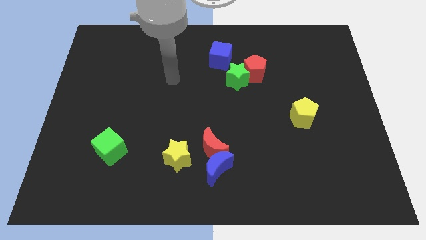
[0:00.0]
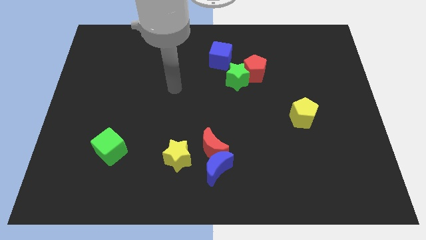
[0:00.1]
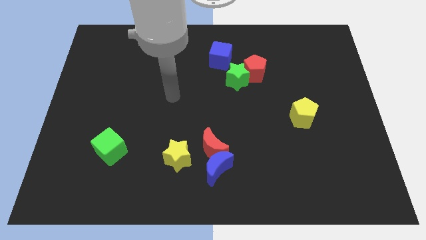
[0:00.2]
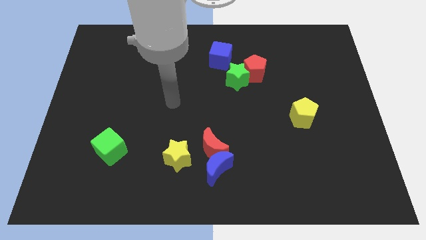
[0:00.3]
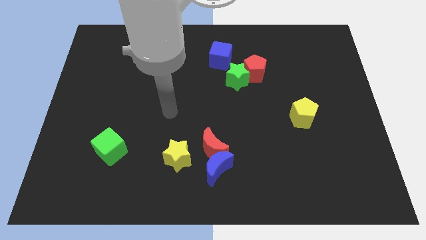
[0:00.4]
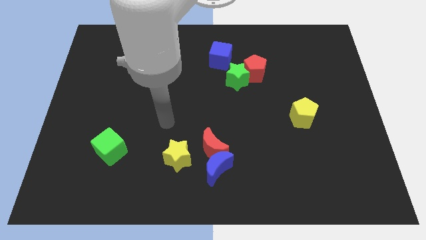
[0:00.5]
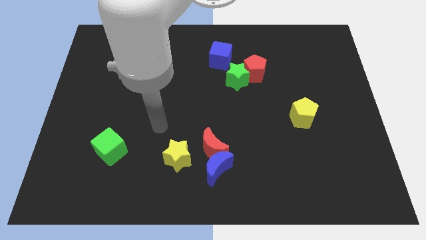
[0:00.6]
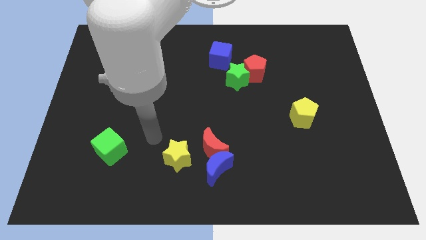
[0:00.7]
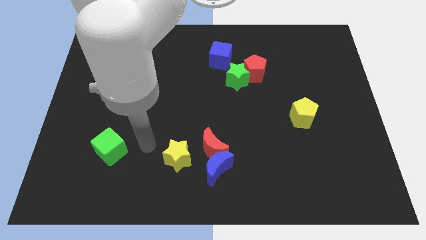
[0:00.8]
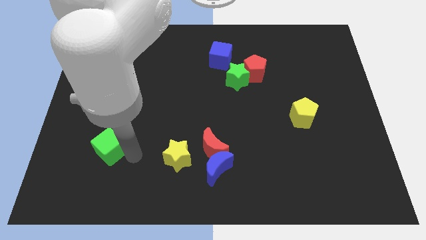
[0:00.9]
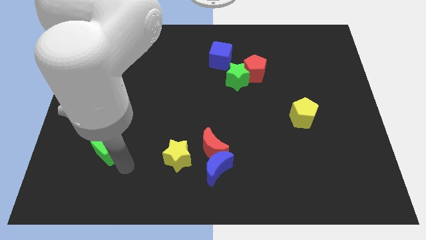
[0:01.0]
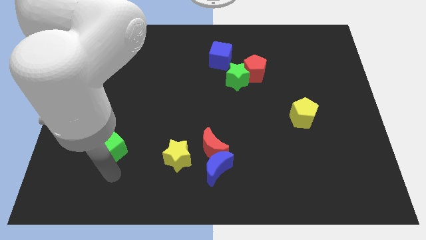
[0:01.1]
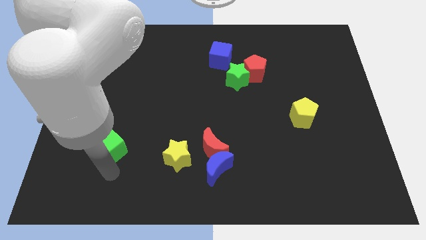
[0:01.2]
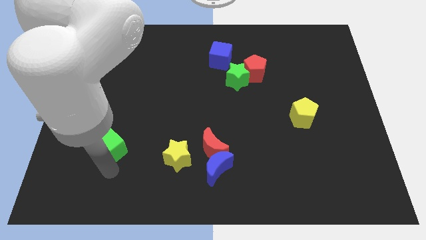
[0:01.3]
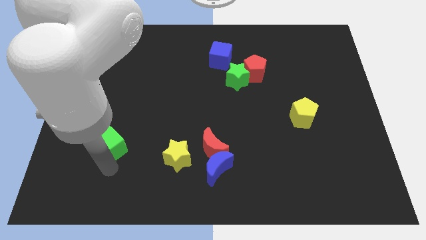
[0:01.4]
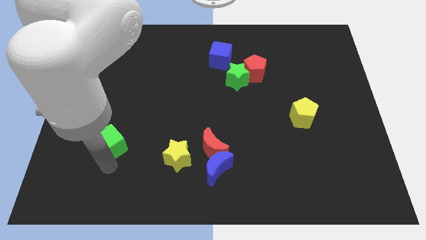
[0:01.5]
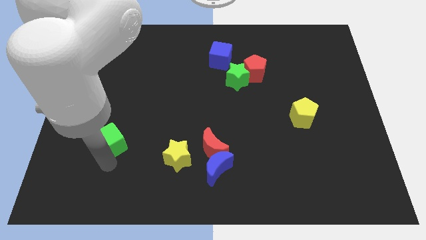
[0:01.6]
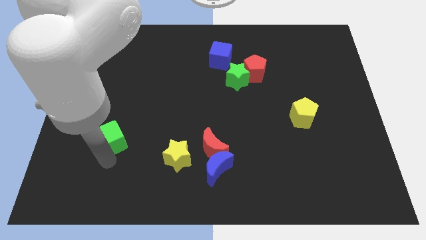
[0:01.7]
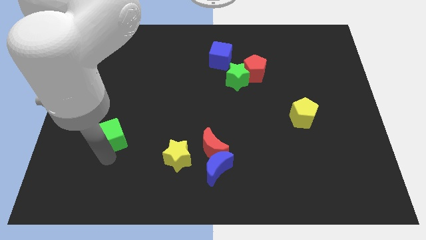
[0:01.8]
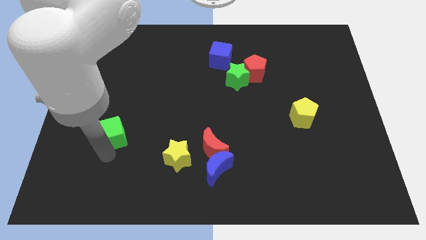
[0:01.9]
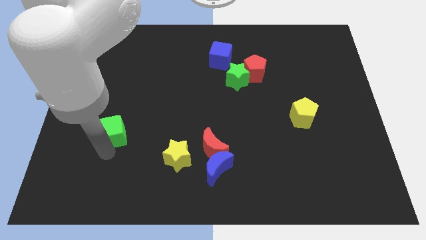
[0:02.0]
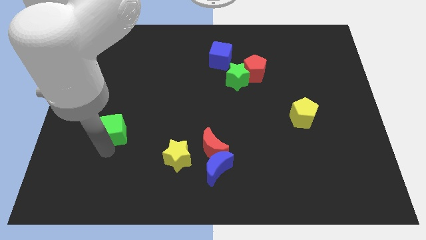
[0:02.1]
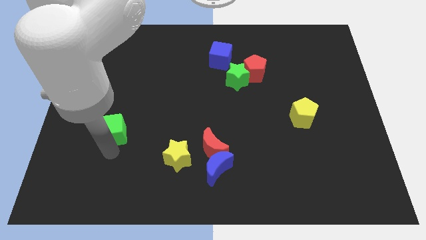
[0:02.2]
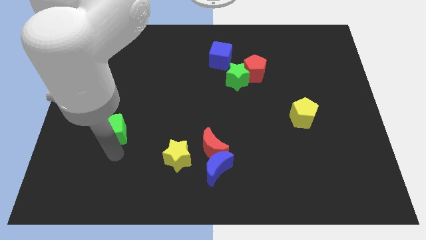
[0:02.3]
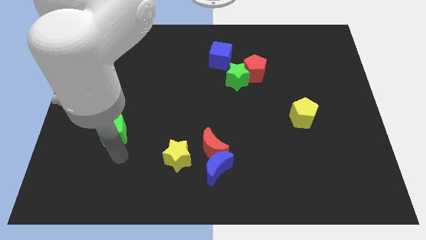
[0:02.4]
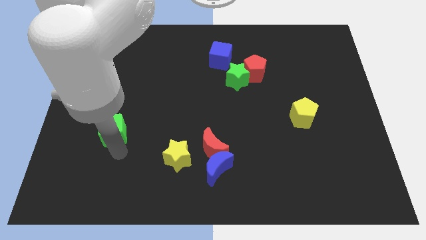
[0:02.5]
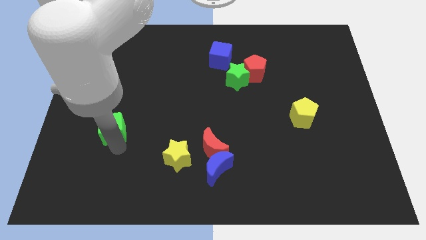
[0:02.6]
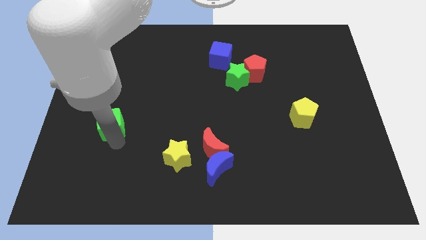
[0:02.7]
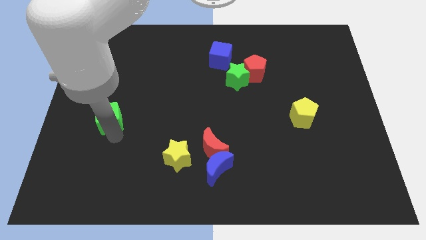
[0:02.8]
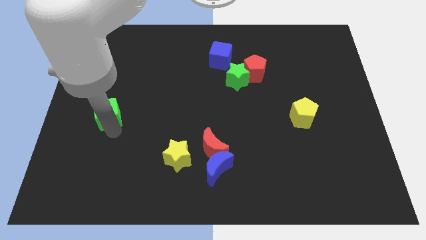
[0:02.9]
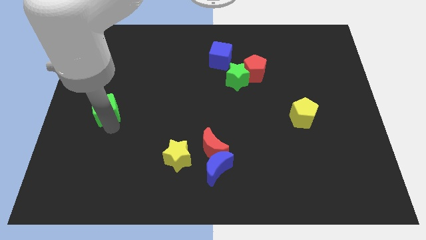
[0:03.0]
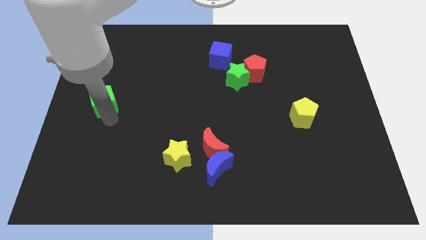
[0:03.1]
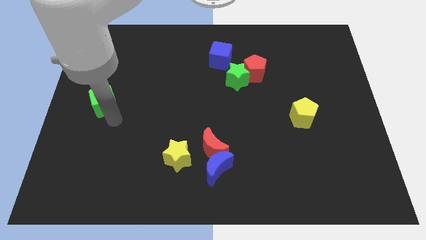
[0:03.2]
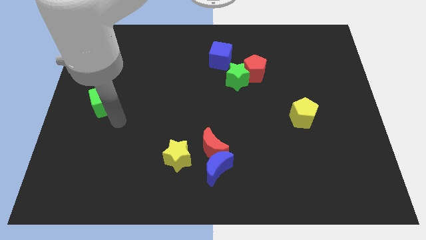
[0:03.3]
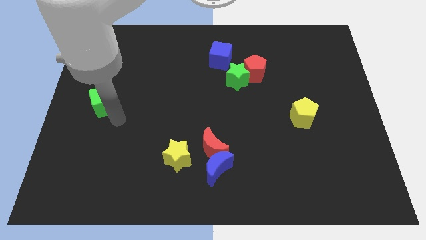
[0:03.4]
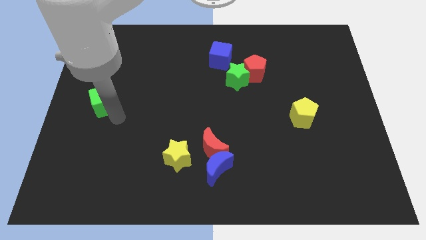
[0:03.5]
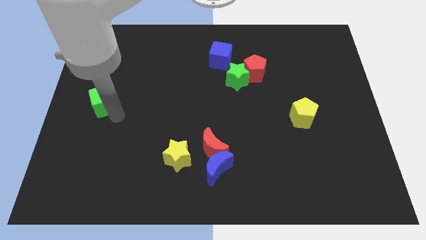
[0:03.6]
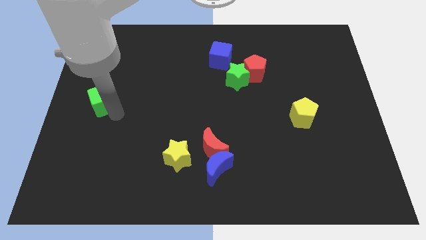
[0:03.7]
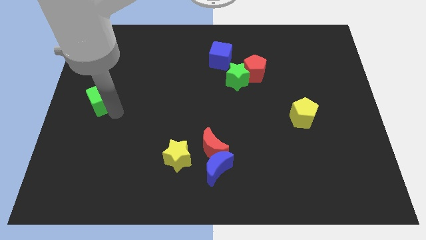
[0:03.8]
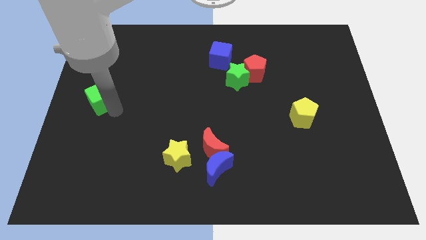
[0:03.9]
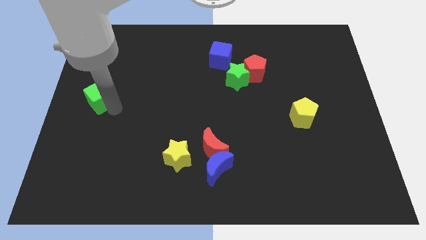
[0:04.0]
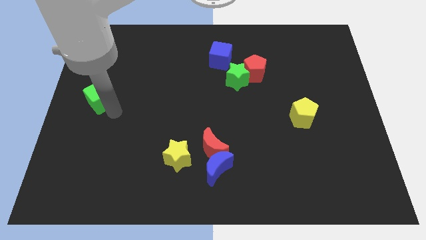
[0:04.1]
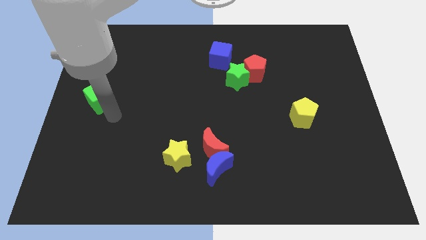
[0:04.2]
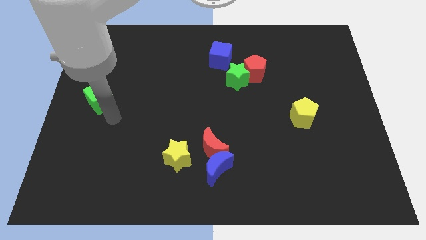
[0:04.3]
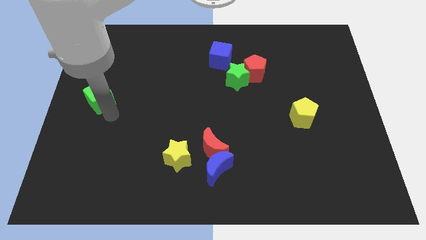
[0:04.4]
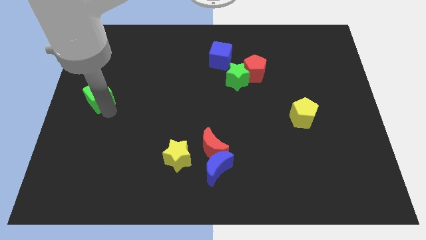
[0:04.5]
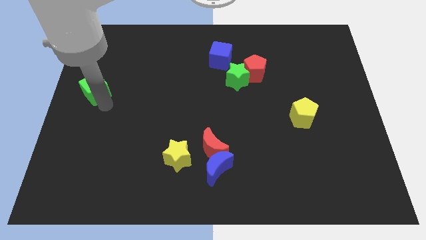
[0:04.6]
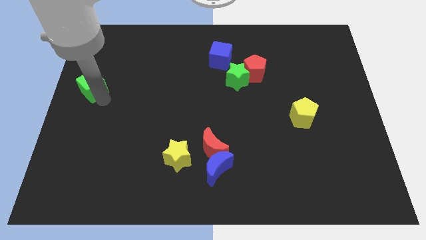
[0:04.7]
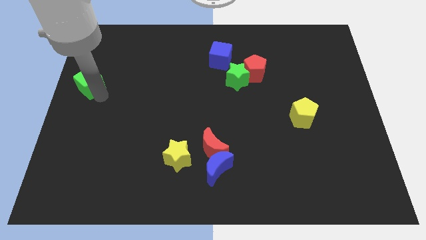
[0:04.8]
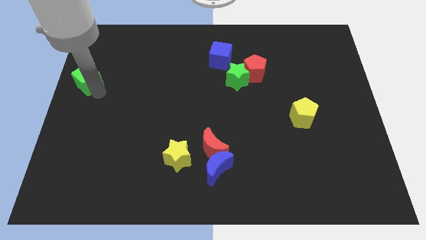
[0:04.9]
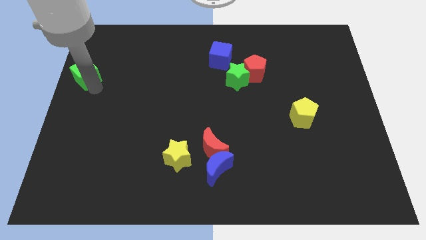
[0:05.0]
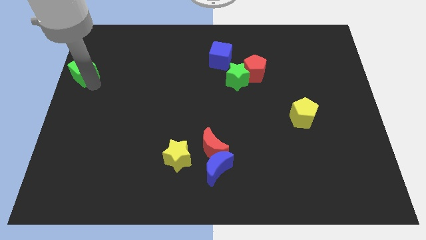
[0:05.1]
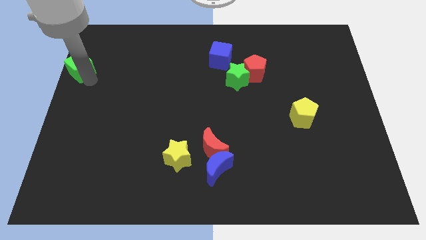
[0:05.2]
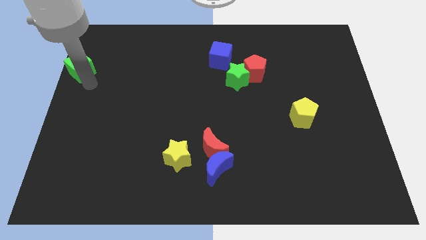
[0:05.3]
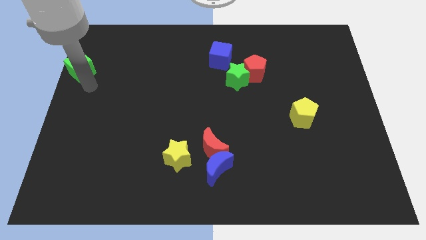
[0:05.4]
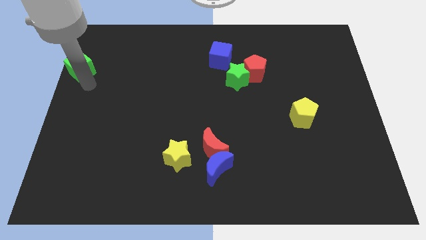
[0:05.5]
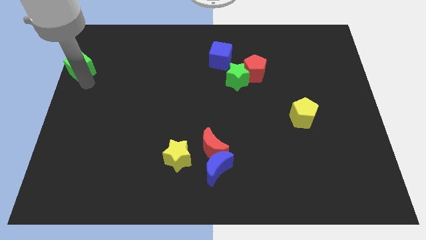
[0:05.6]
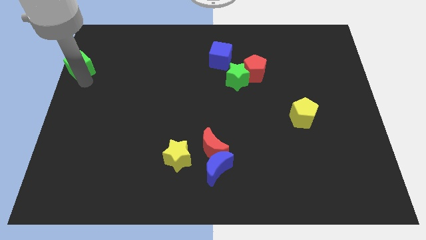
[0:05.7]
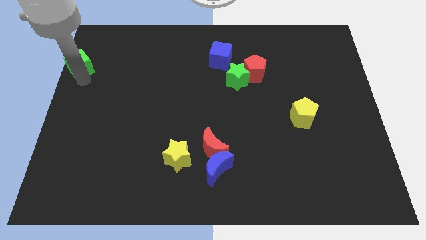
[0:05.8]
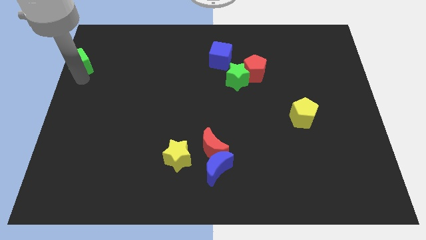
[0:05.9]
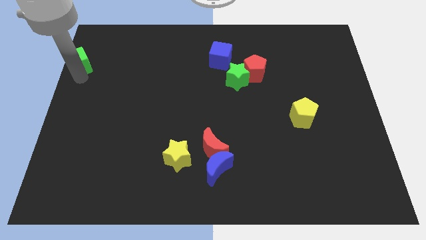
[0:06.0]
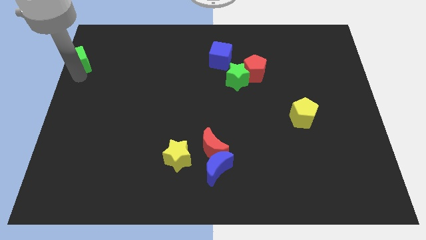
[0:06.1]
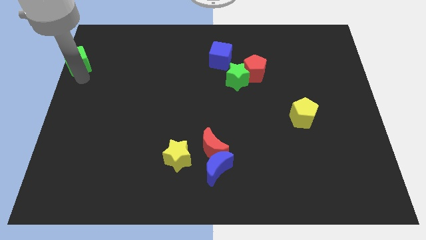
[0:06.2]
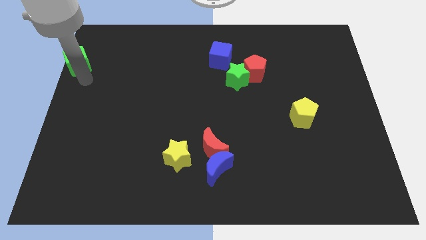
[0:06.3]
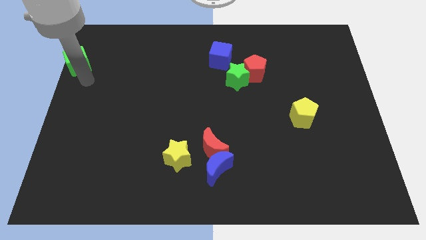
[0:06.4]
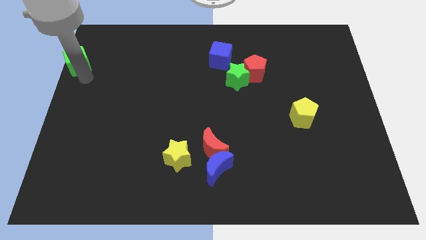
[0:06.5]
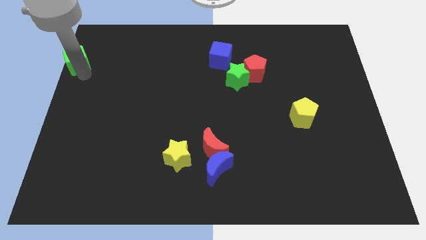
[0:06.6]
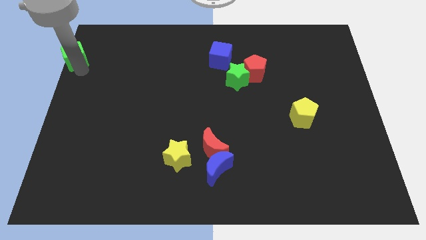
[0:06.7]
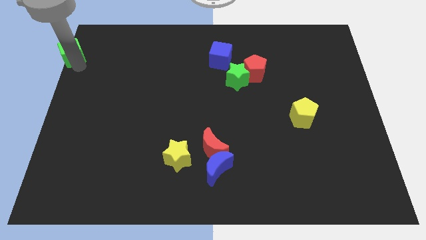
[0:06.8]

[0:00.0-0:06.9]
push the green cube to the upper left corner
